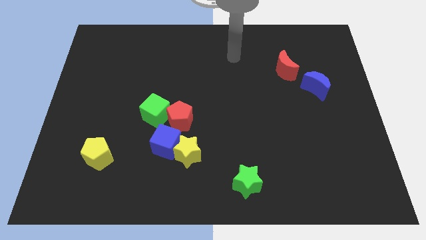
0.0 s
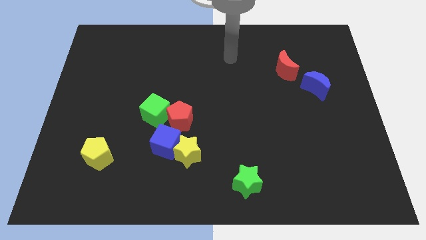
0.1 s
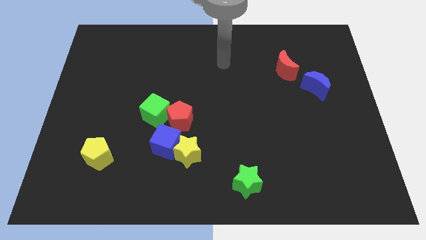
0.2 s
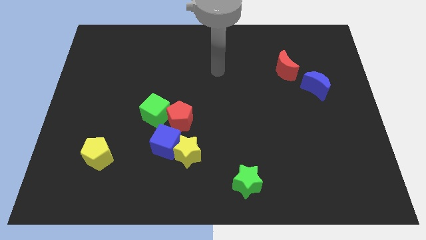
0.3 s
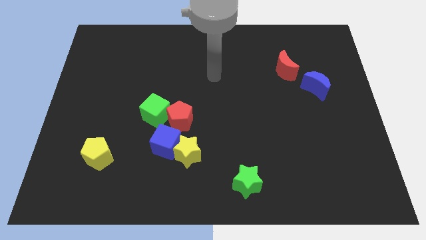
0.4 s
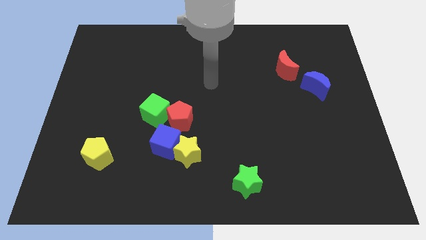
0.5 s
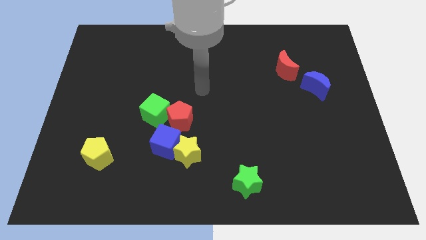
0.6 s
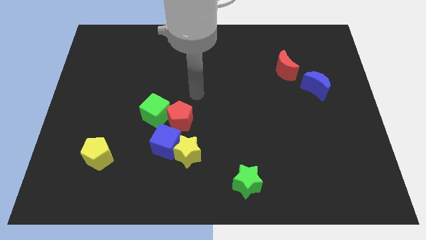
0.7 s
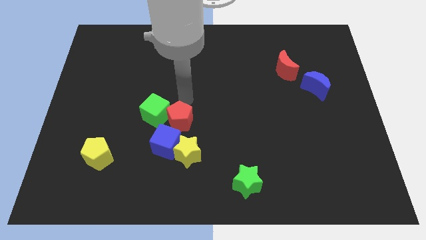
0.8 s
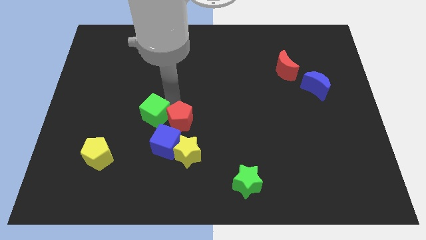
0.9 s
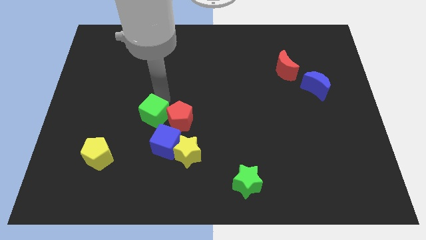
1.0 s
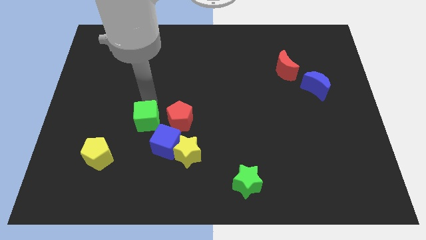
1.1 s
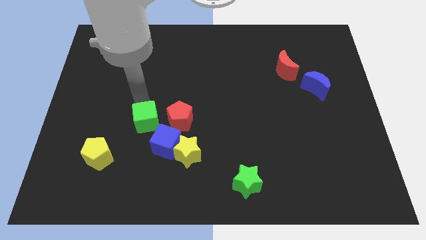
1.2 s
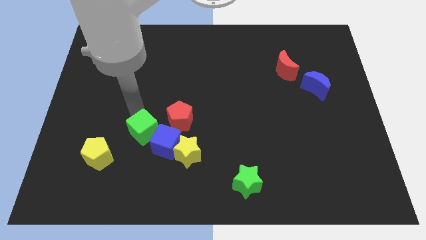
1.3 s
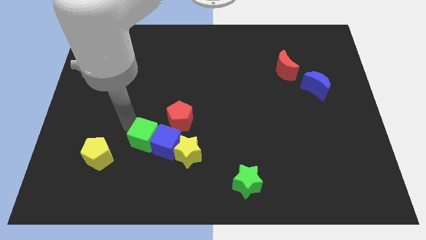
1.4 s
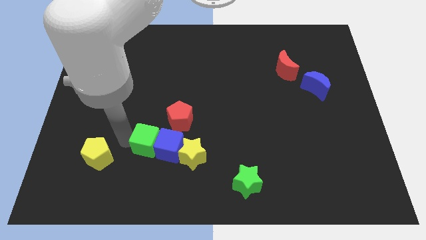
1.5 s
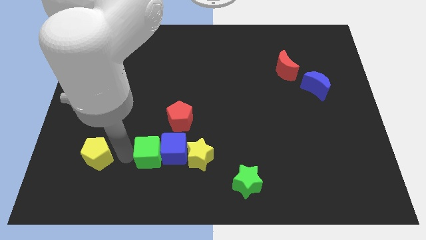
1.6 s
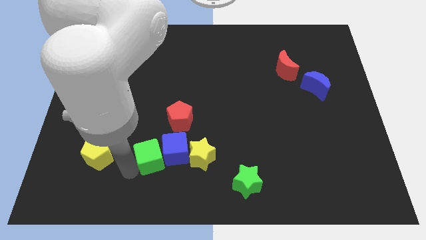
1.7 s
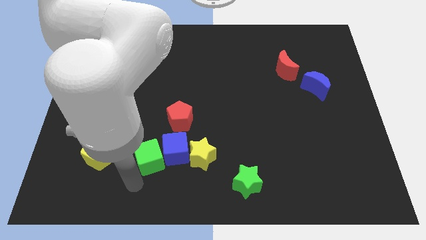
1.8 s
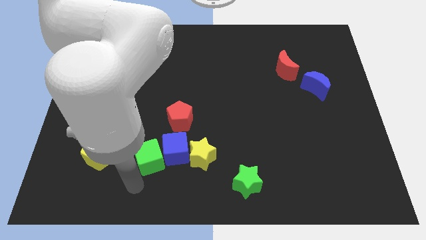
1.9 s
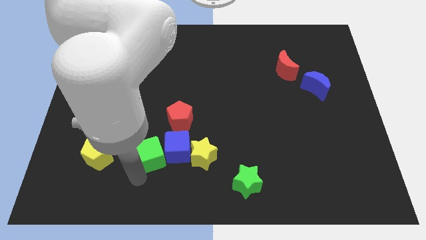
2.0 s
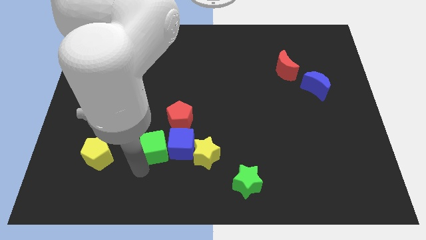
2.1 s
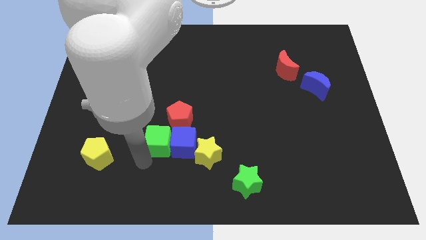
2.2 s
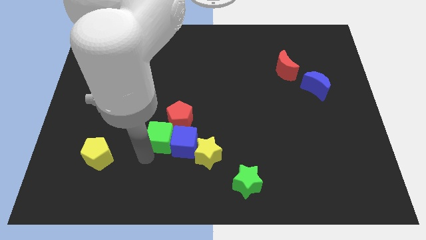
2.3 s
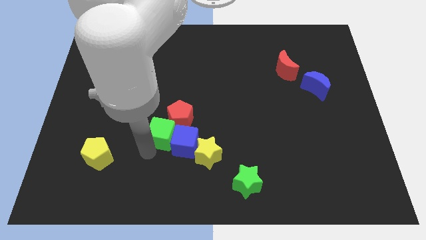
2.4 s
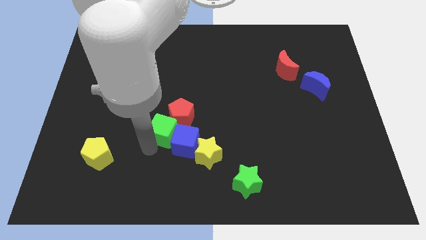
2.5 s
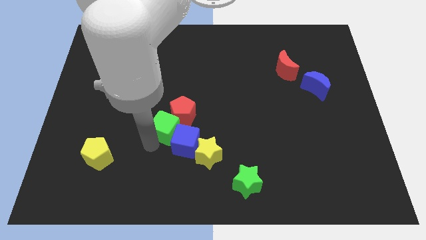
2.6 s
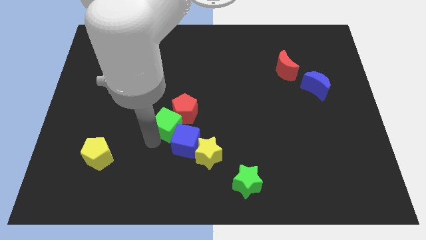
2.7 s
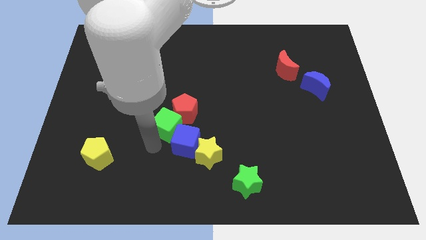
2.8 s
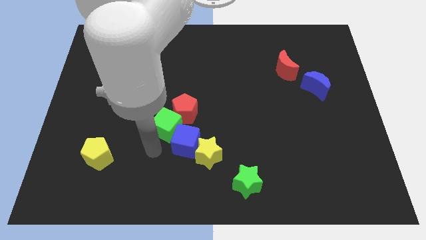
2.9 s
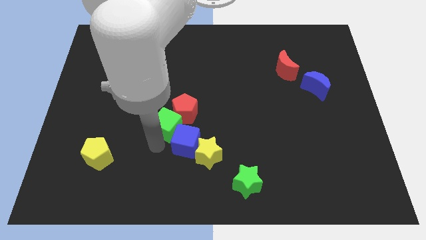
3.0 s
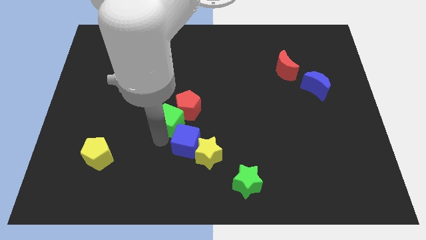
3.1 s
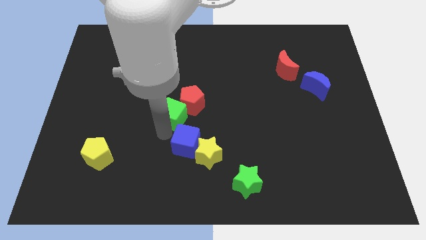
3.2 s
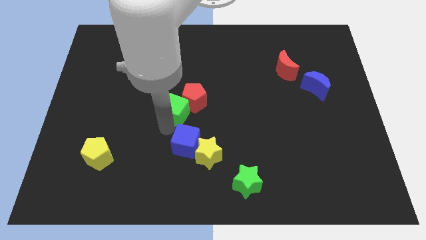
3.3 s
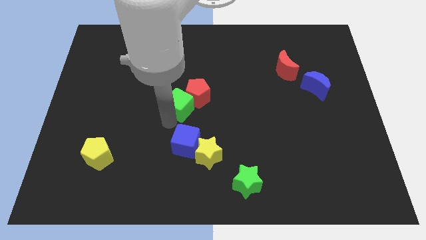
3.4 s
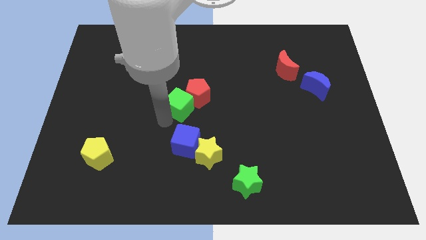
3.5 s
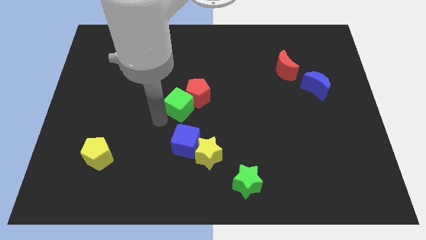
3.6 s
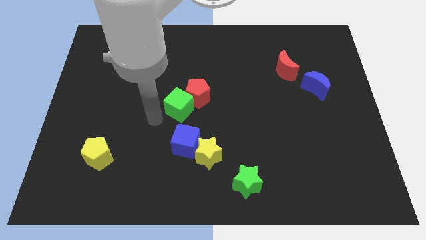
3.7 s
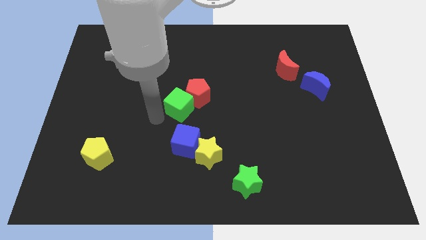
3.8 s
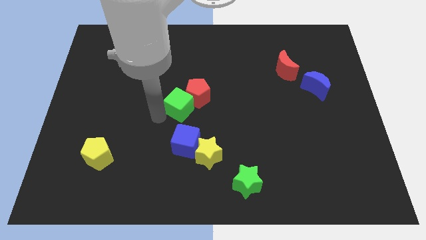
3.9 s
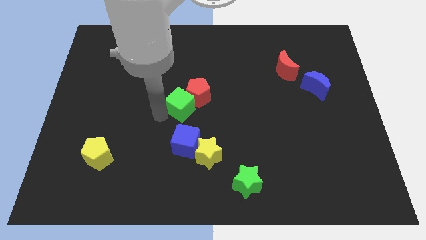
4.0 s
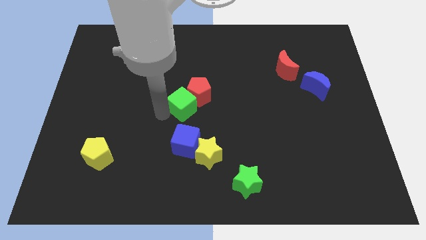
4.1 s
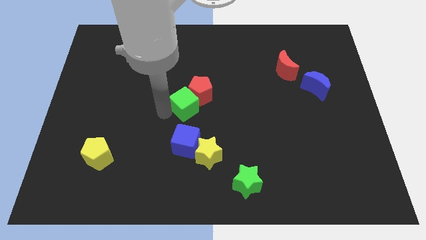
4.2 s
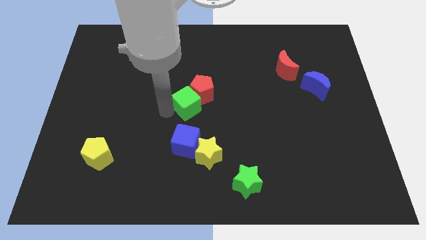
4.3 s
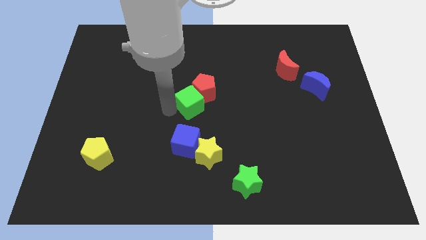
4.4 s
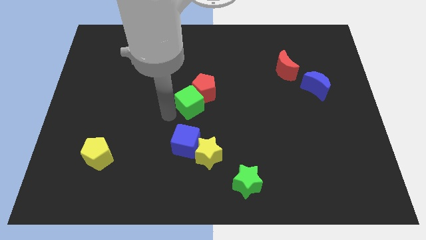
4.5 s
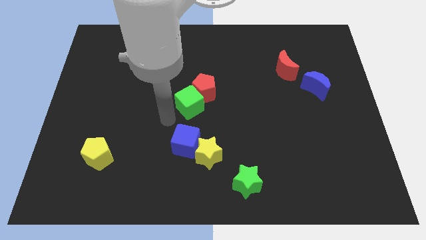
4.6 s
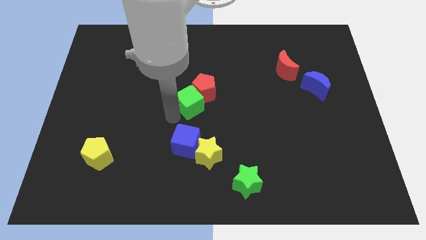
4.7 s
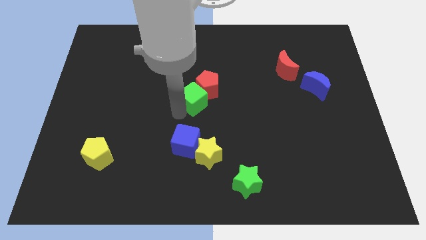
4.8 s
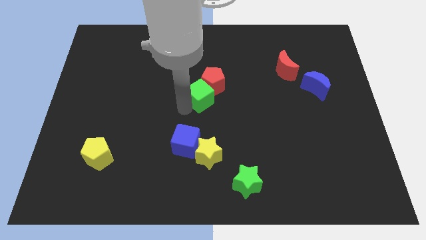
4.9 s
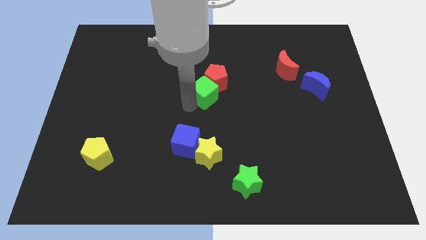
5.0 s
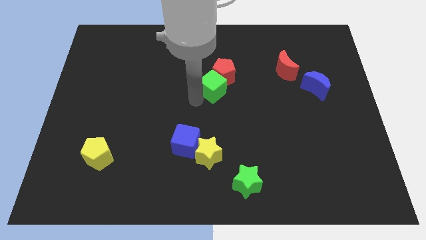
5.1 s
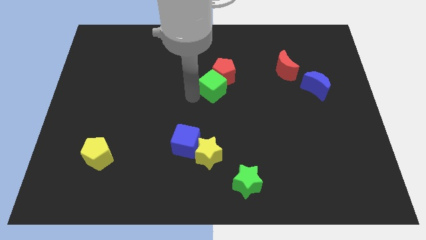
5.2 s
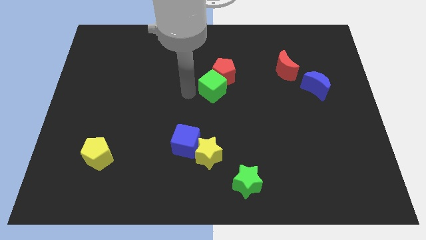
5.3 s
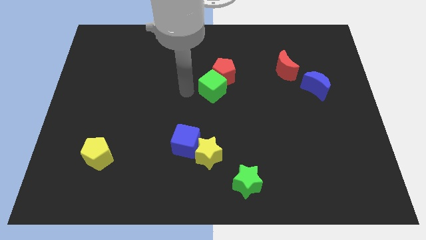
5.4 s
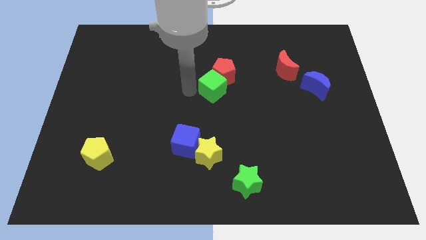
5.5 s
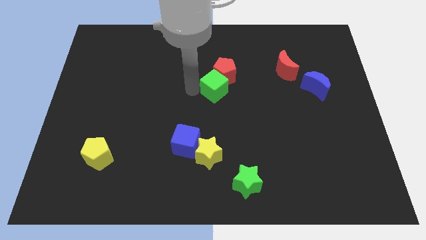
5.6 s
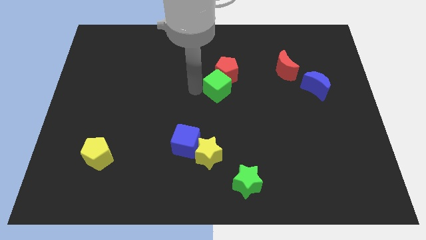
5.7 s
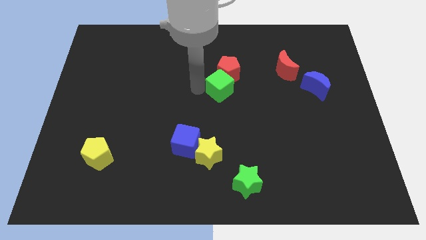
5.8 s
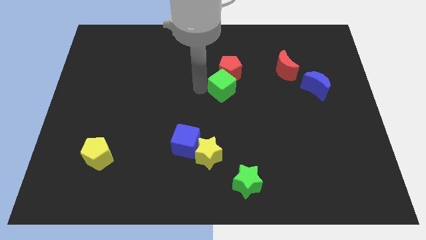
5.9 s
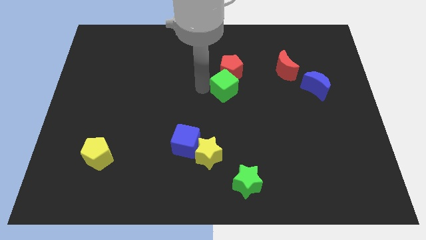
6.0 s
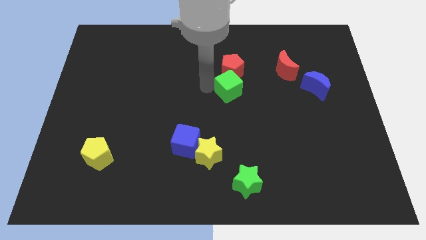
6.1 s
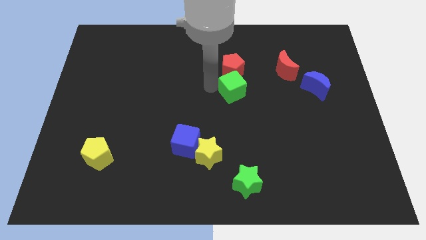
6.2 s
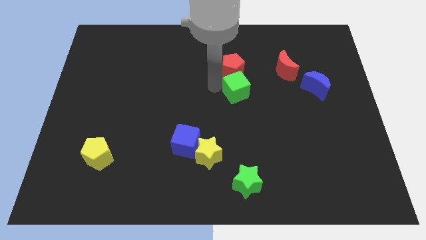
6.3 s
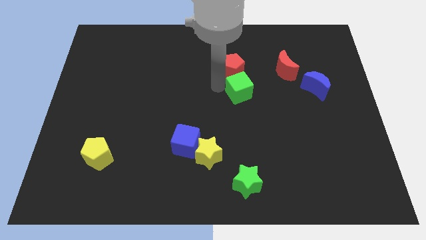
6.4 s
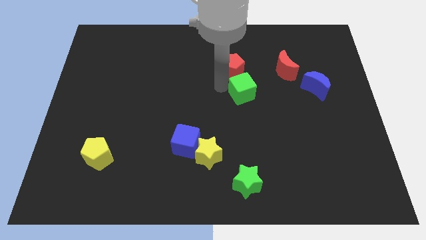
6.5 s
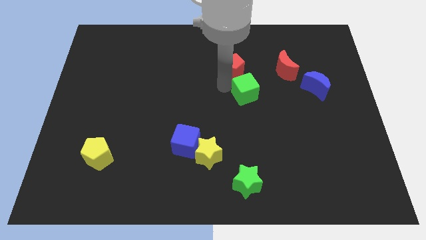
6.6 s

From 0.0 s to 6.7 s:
move the green cube to the bottom left of the red moon

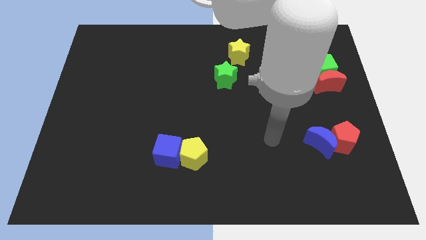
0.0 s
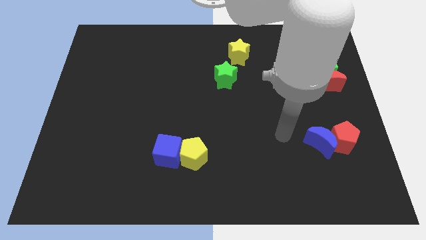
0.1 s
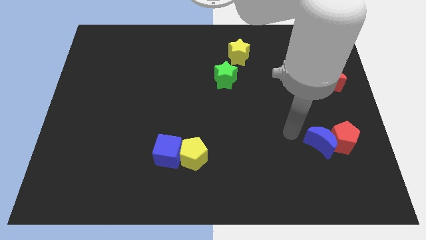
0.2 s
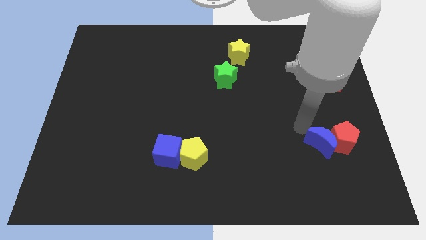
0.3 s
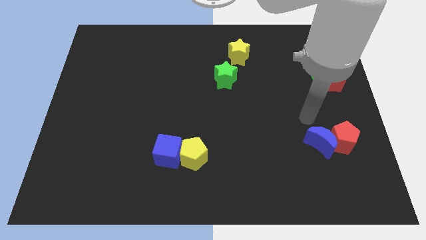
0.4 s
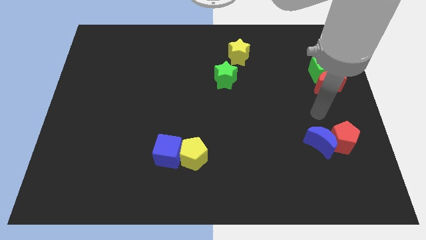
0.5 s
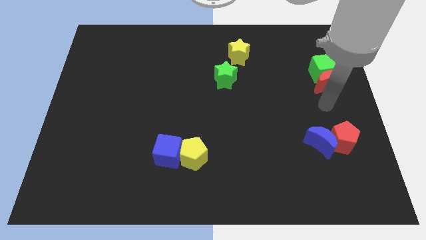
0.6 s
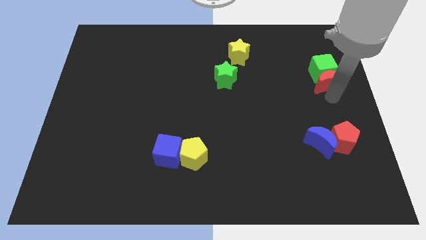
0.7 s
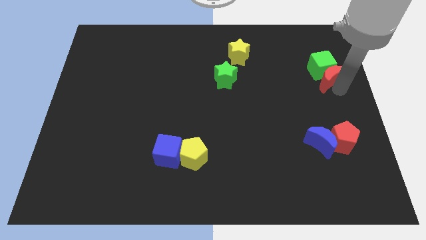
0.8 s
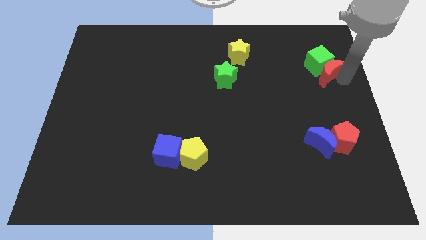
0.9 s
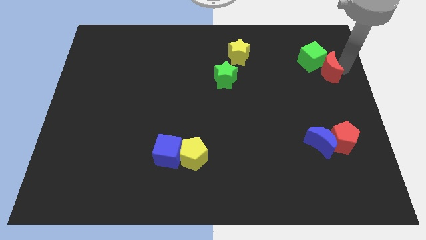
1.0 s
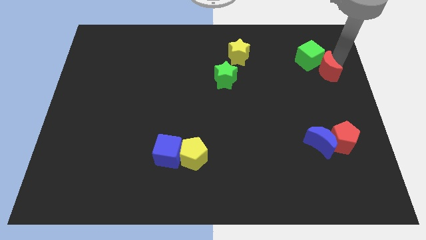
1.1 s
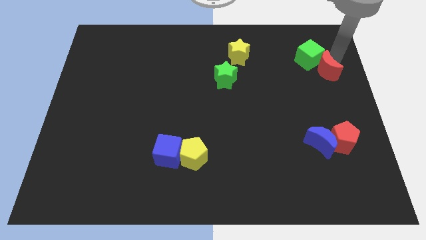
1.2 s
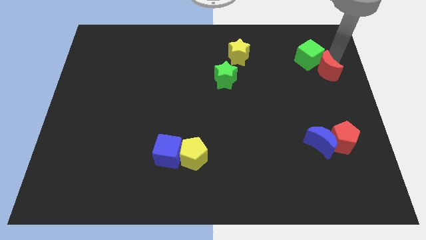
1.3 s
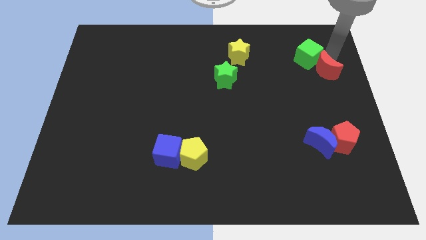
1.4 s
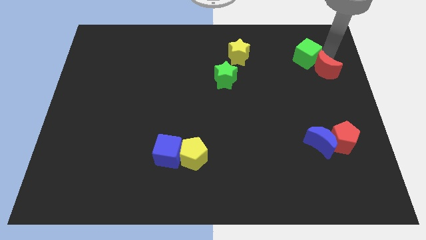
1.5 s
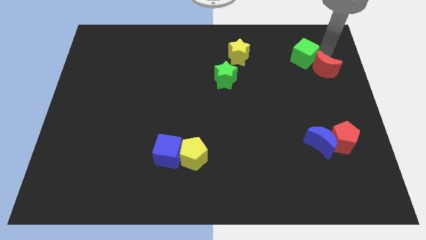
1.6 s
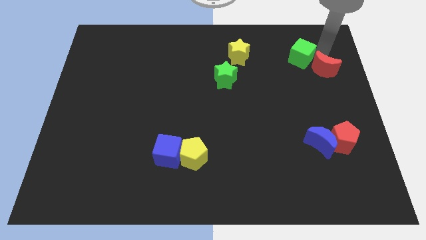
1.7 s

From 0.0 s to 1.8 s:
slide the green cube just right of the yellow star
